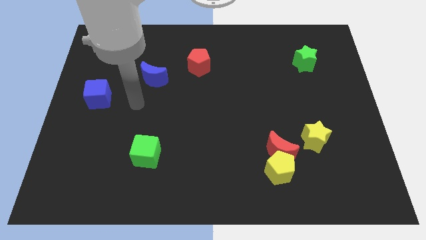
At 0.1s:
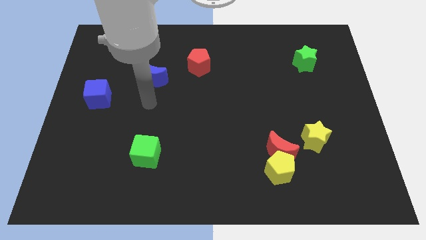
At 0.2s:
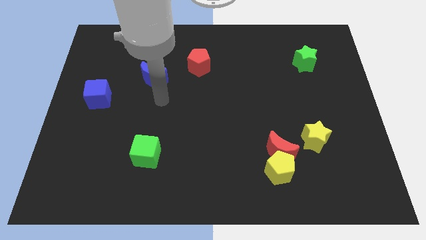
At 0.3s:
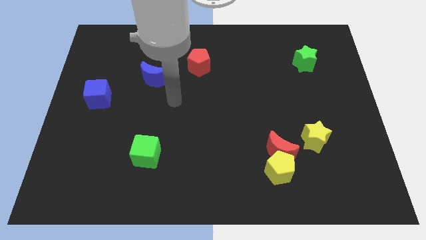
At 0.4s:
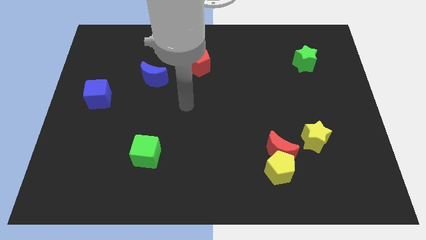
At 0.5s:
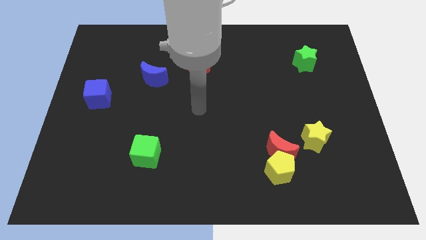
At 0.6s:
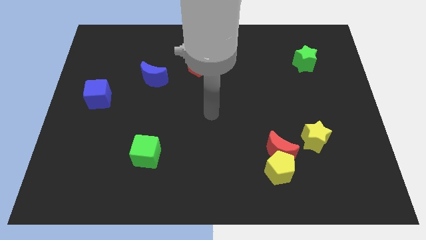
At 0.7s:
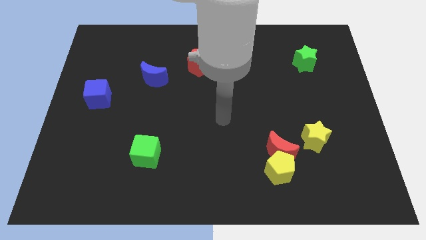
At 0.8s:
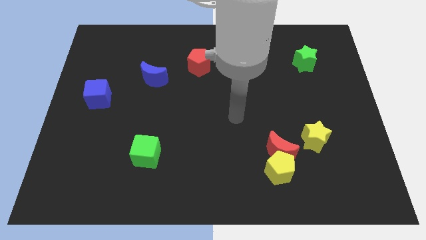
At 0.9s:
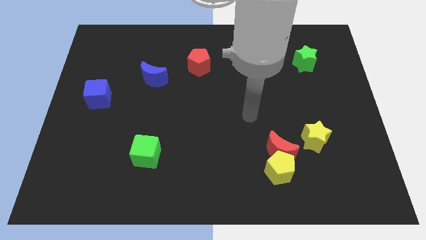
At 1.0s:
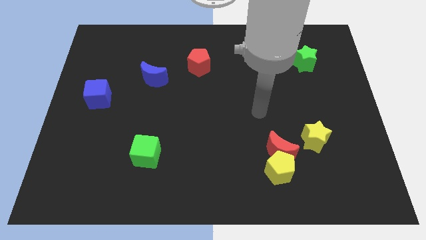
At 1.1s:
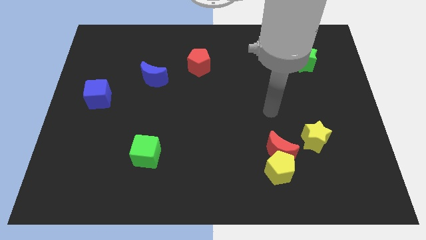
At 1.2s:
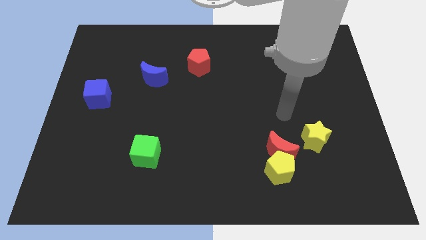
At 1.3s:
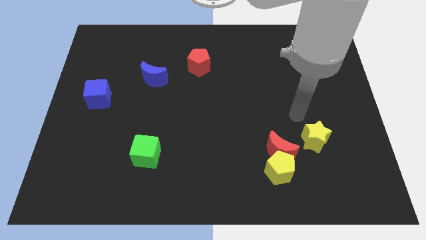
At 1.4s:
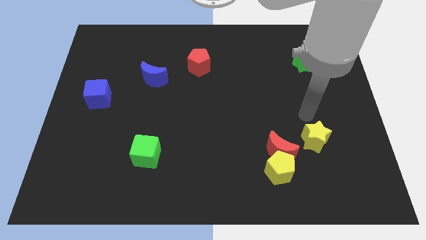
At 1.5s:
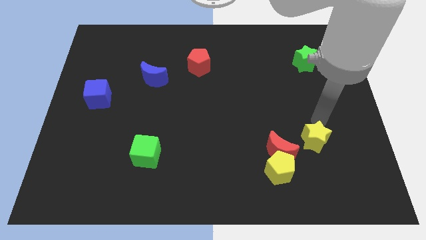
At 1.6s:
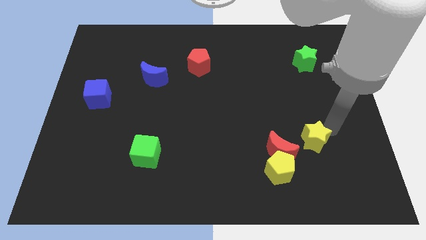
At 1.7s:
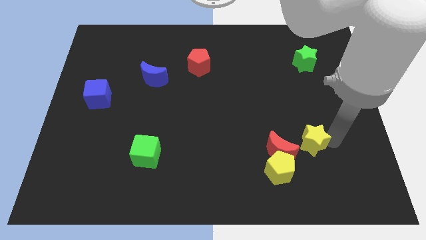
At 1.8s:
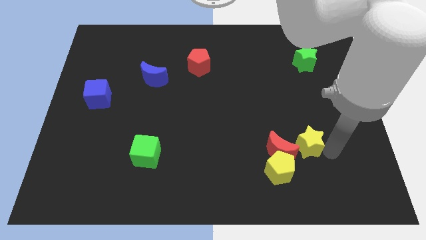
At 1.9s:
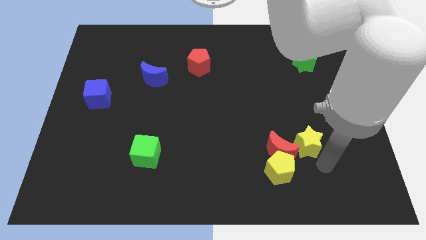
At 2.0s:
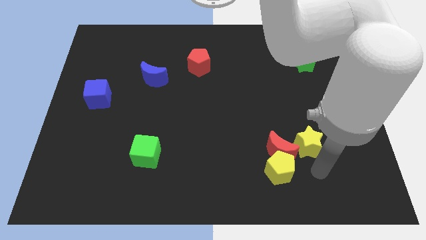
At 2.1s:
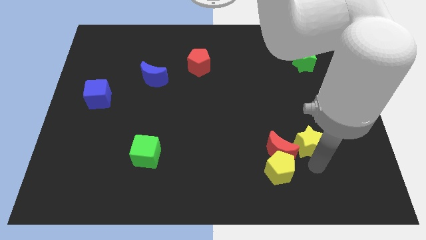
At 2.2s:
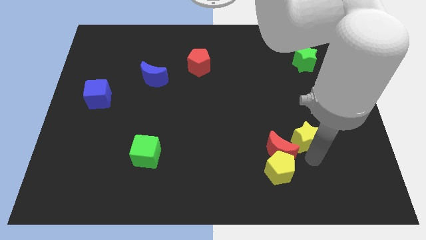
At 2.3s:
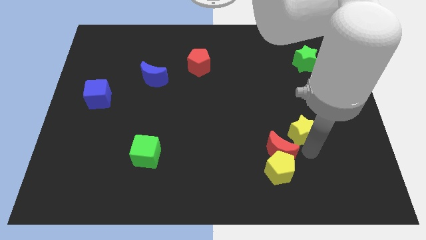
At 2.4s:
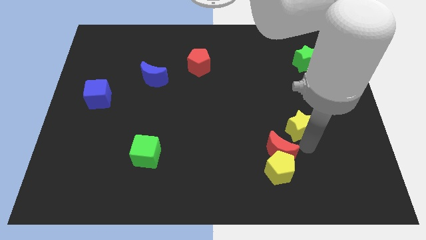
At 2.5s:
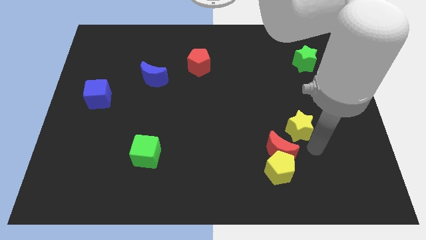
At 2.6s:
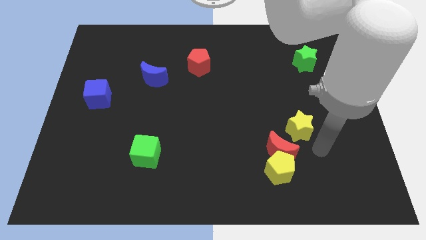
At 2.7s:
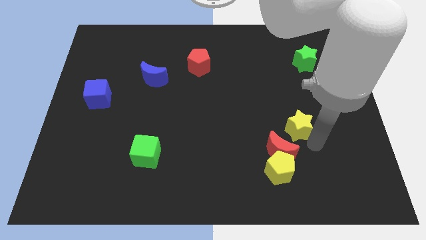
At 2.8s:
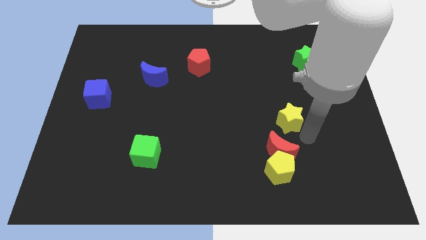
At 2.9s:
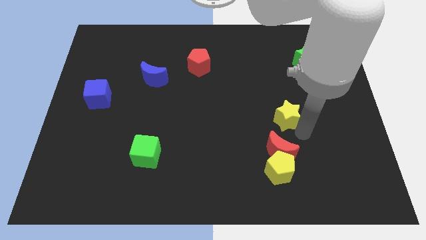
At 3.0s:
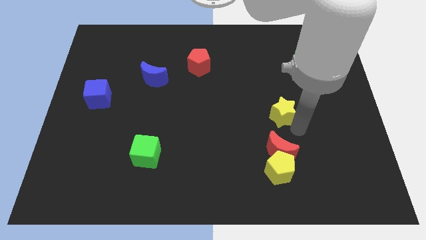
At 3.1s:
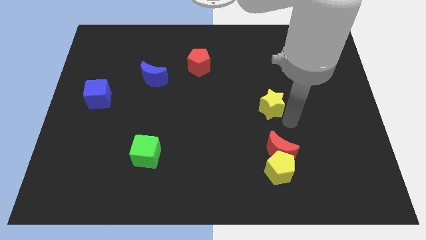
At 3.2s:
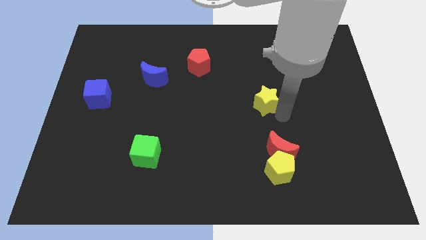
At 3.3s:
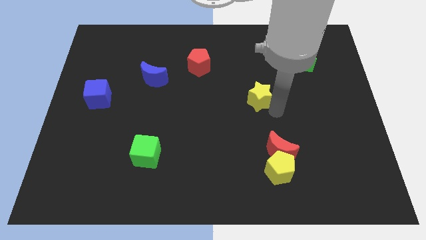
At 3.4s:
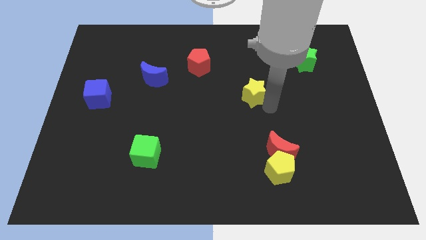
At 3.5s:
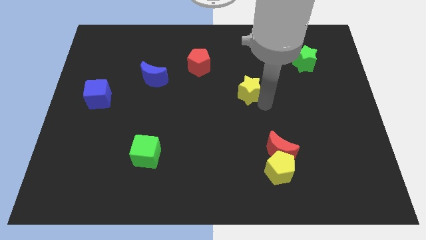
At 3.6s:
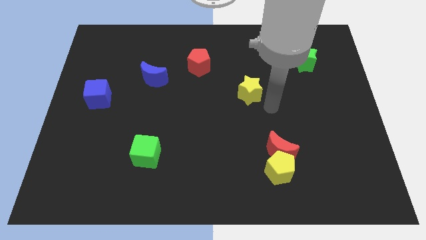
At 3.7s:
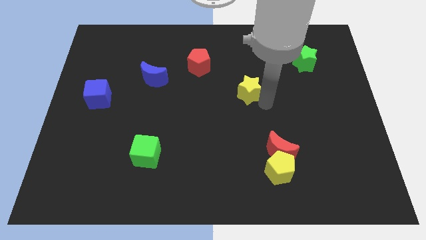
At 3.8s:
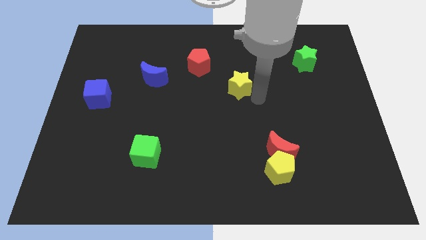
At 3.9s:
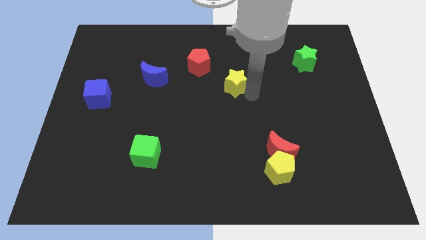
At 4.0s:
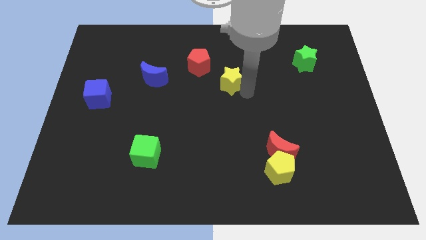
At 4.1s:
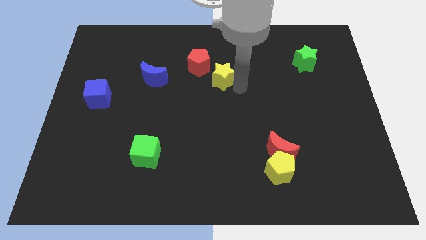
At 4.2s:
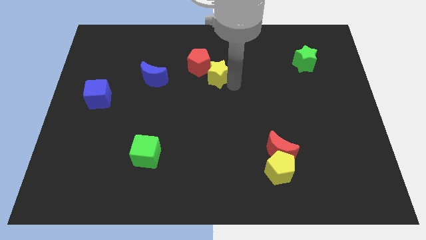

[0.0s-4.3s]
push the yellow star towards the red pentagon

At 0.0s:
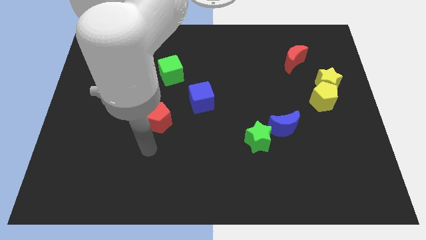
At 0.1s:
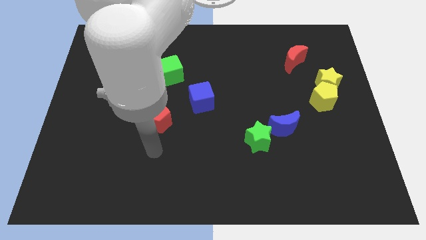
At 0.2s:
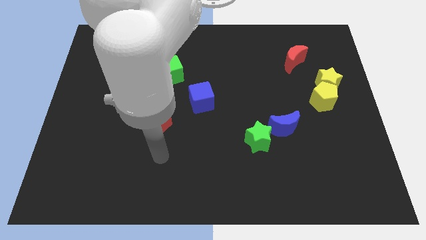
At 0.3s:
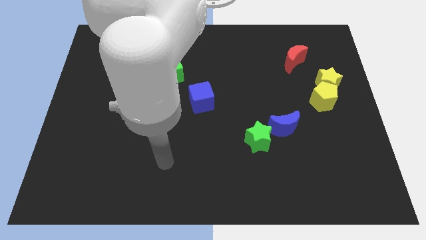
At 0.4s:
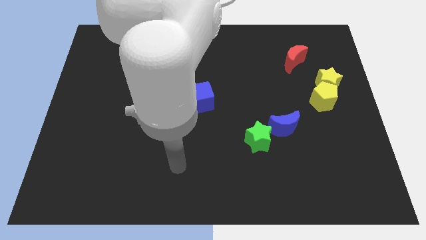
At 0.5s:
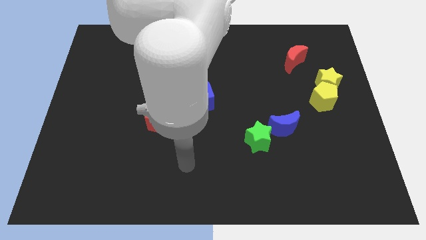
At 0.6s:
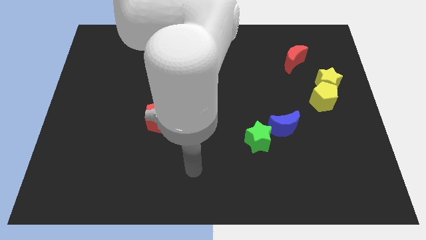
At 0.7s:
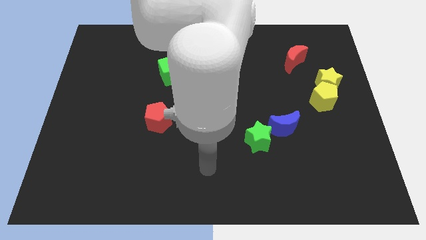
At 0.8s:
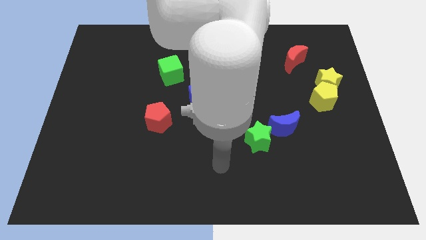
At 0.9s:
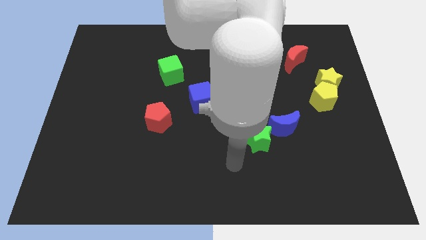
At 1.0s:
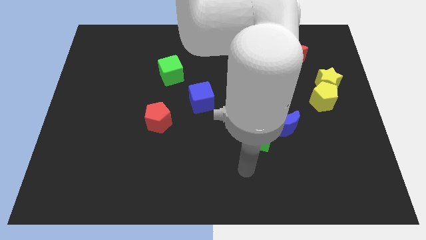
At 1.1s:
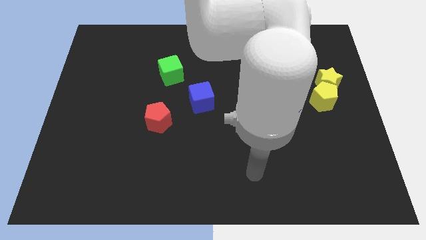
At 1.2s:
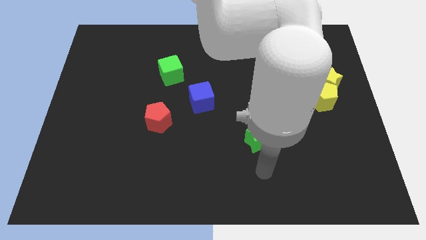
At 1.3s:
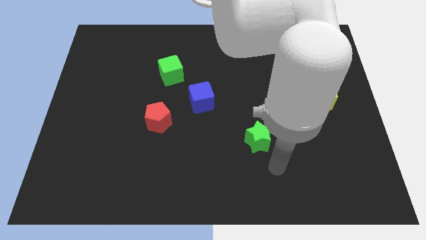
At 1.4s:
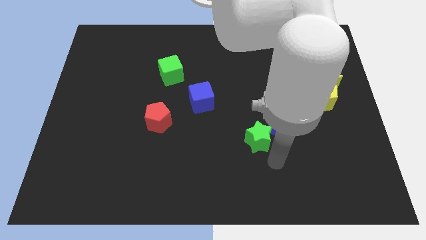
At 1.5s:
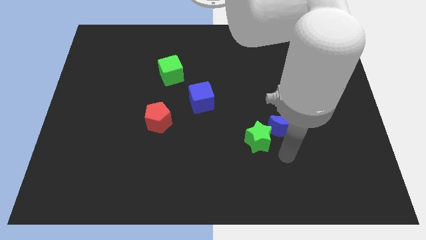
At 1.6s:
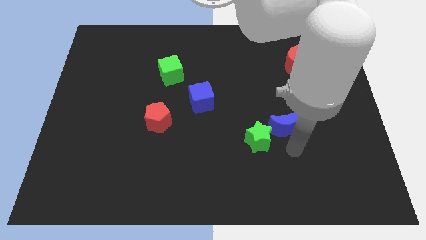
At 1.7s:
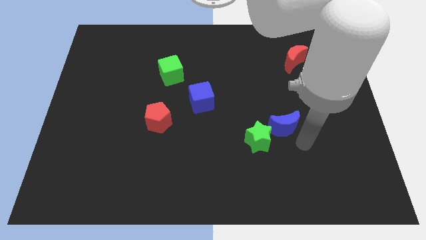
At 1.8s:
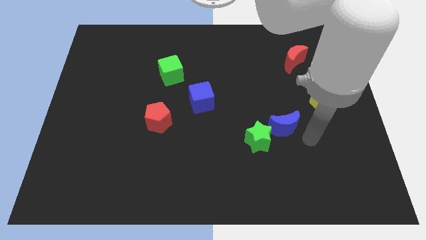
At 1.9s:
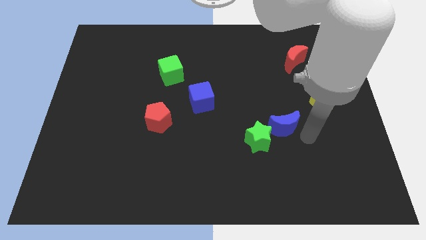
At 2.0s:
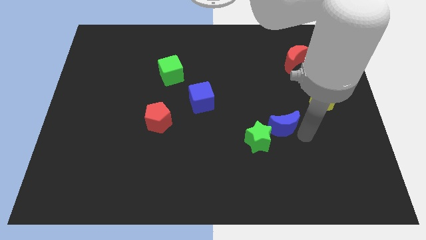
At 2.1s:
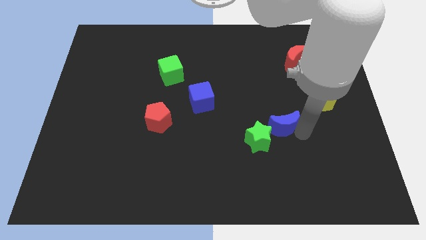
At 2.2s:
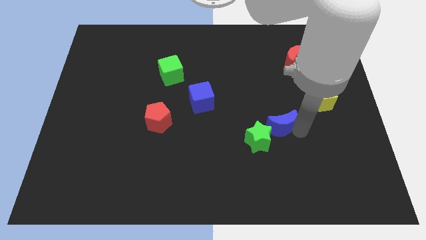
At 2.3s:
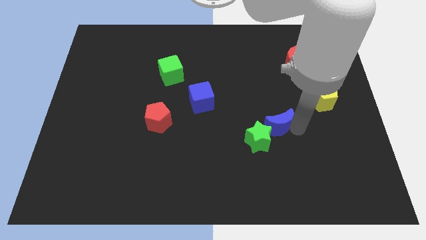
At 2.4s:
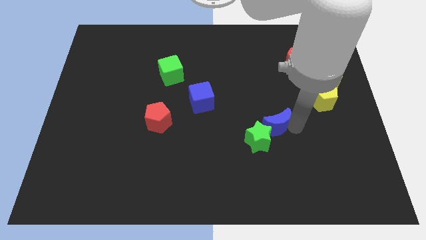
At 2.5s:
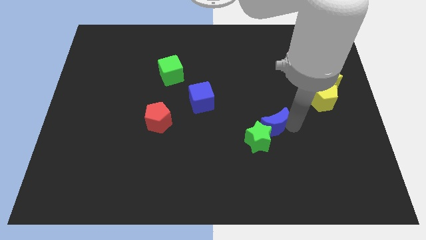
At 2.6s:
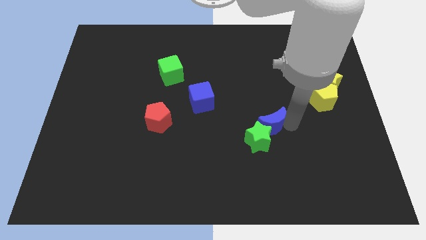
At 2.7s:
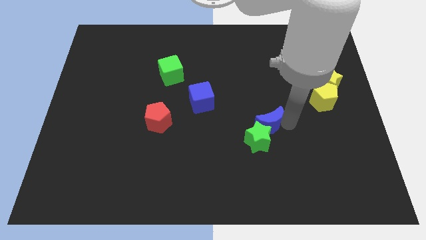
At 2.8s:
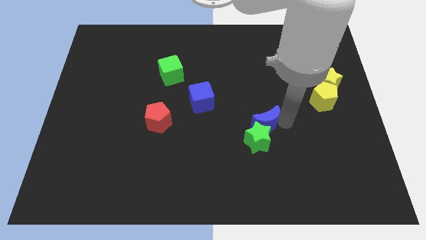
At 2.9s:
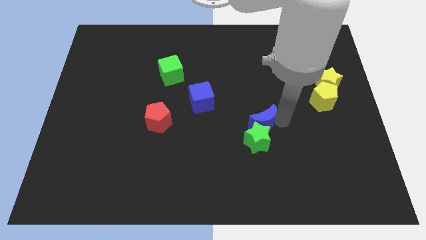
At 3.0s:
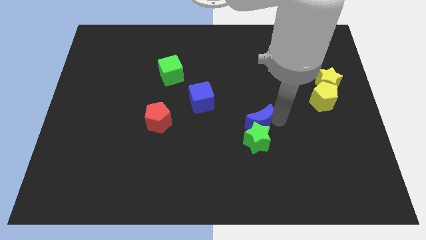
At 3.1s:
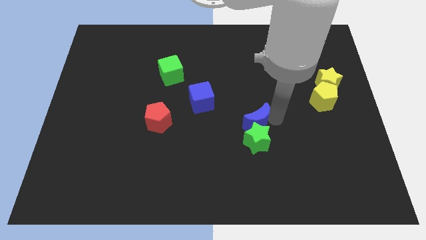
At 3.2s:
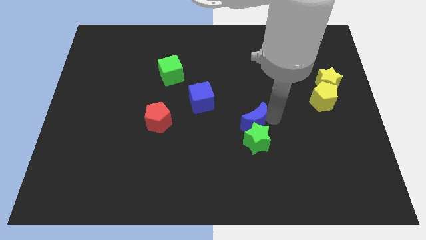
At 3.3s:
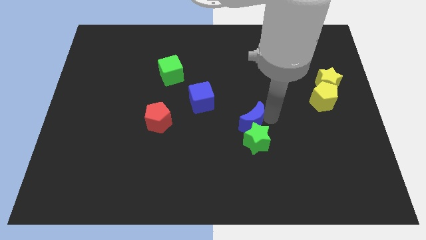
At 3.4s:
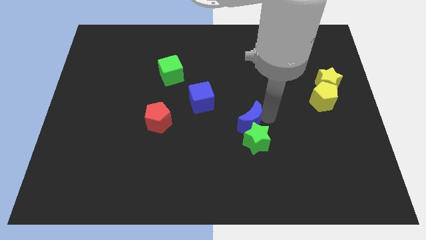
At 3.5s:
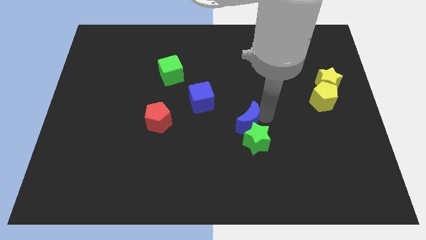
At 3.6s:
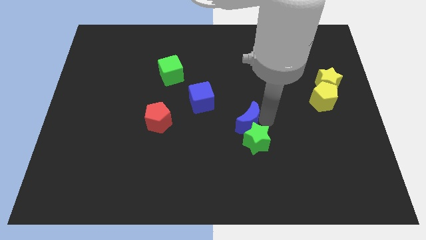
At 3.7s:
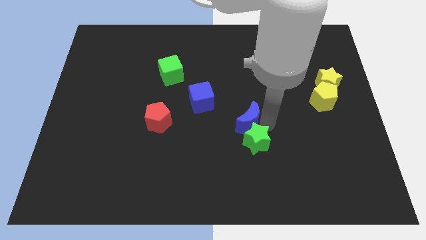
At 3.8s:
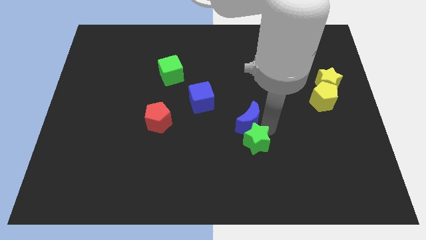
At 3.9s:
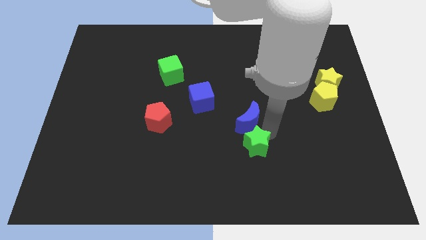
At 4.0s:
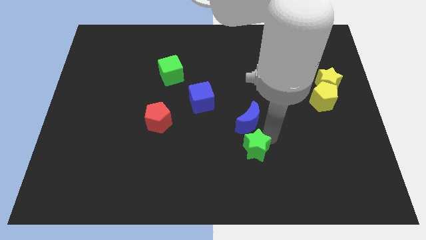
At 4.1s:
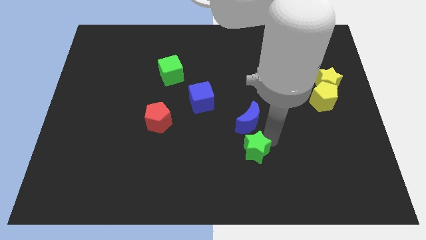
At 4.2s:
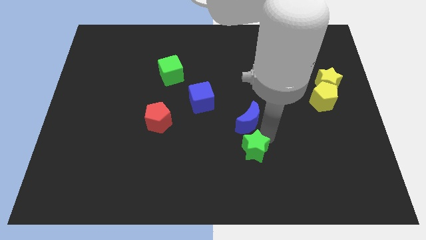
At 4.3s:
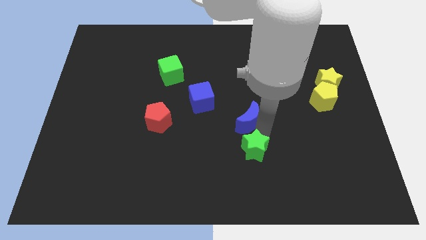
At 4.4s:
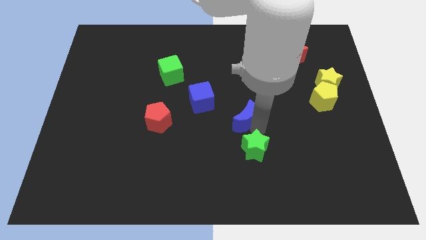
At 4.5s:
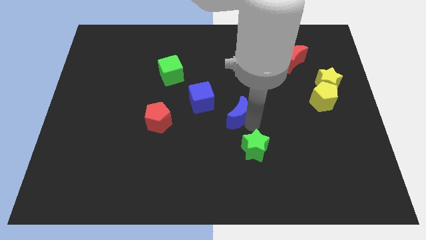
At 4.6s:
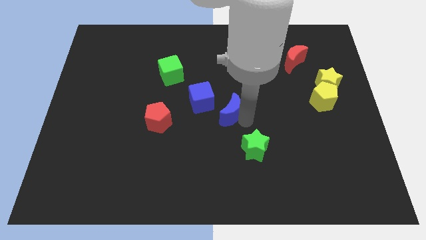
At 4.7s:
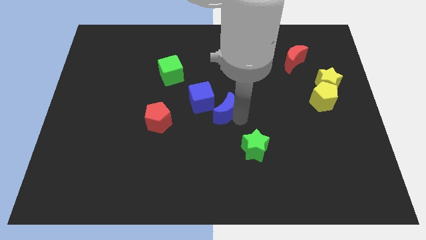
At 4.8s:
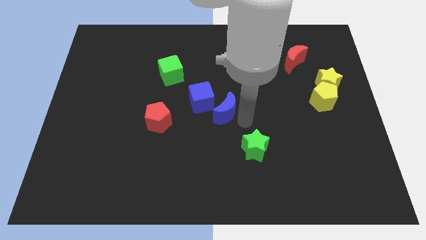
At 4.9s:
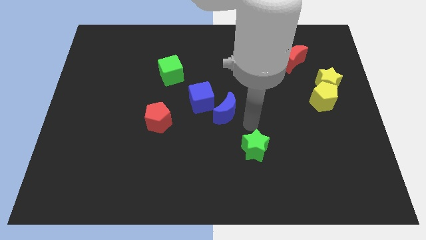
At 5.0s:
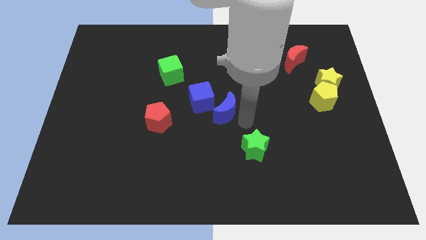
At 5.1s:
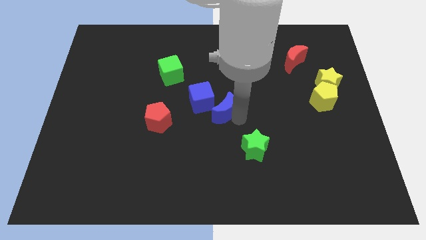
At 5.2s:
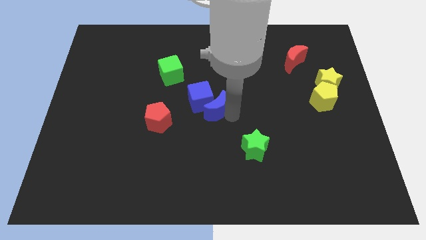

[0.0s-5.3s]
put the blue moon next to the blue cube
